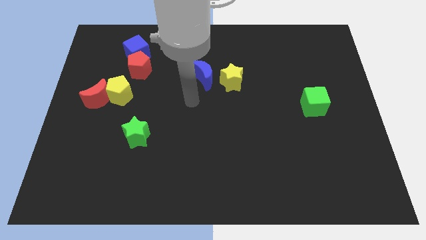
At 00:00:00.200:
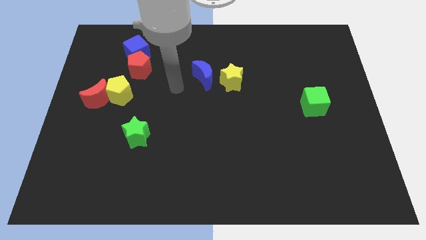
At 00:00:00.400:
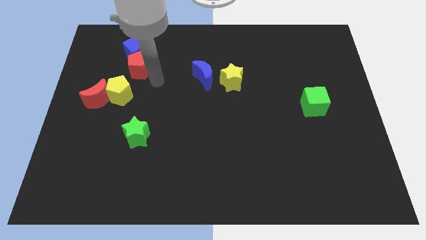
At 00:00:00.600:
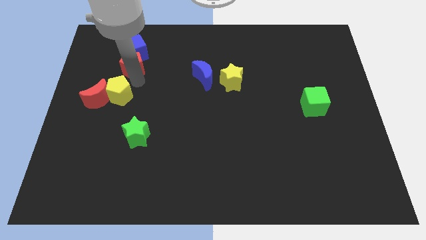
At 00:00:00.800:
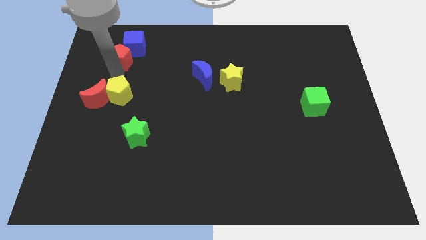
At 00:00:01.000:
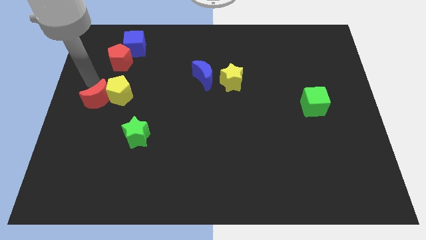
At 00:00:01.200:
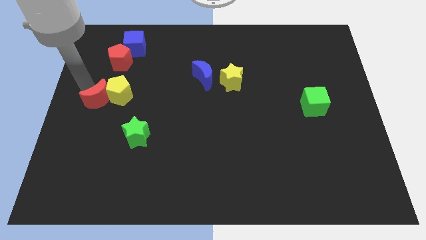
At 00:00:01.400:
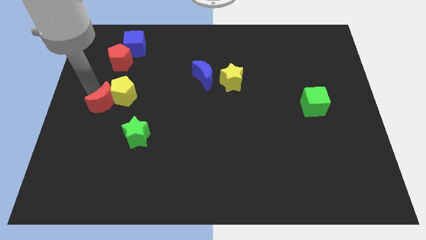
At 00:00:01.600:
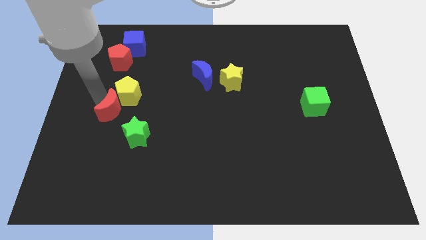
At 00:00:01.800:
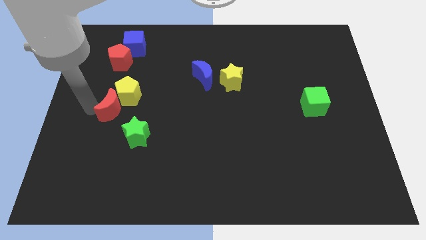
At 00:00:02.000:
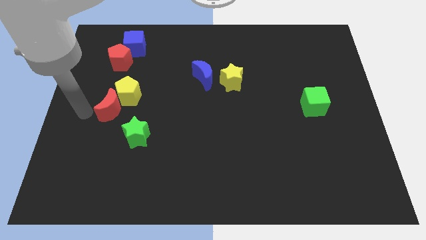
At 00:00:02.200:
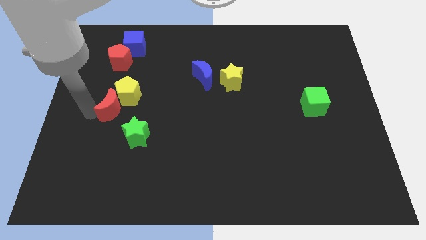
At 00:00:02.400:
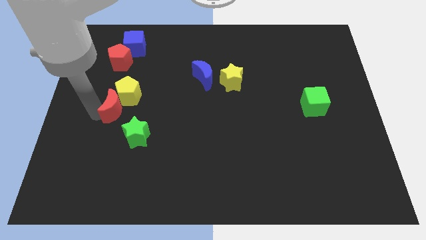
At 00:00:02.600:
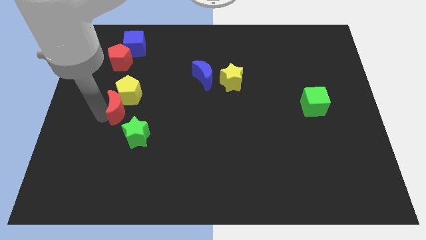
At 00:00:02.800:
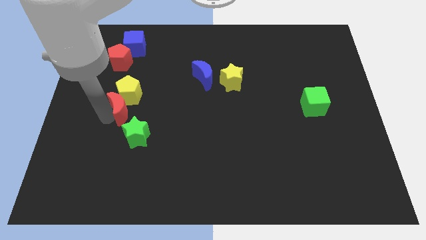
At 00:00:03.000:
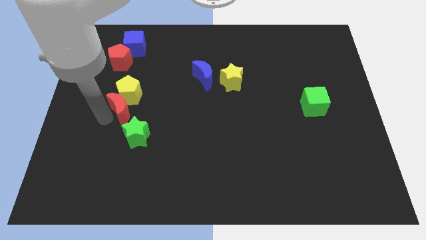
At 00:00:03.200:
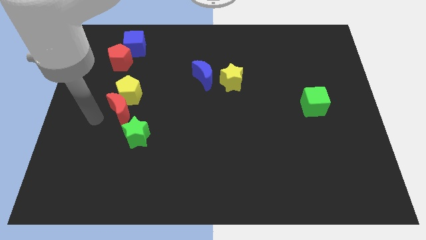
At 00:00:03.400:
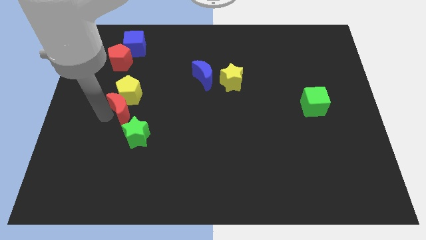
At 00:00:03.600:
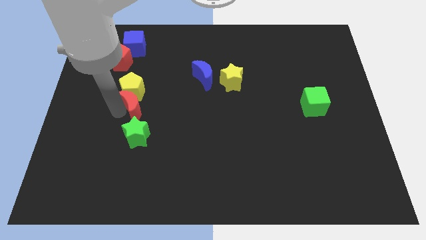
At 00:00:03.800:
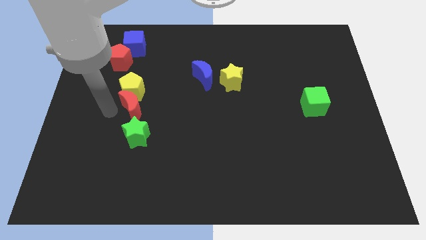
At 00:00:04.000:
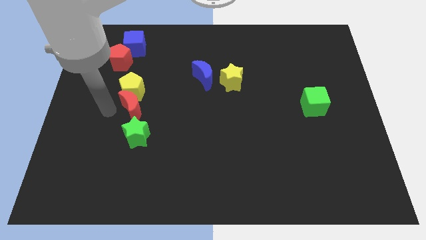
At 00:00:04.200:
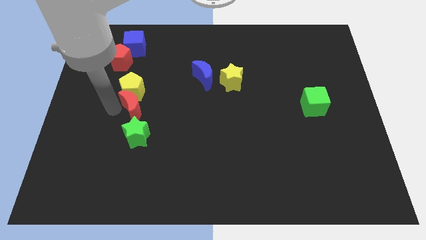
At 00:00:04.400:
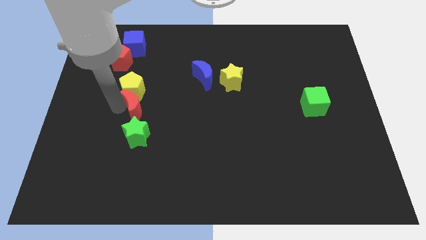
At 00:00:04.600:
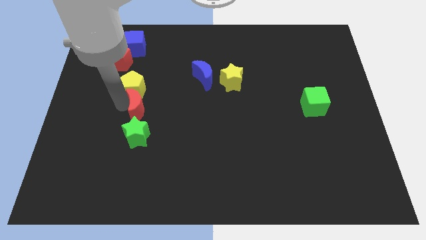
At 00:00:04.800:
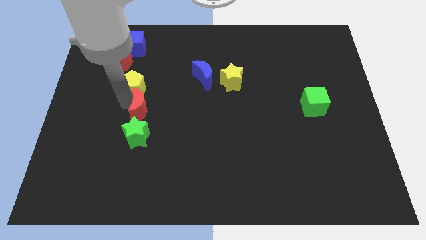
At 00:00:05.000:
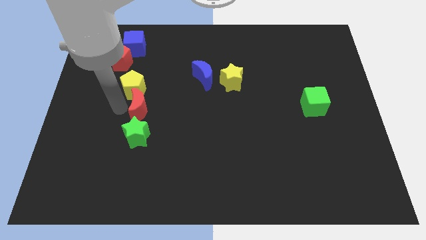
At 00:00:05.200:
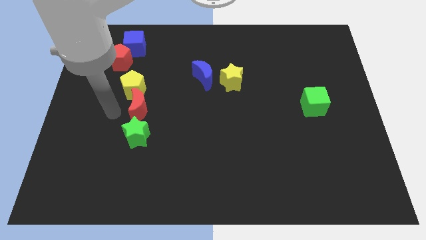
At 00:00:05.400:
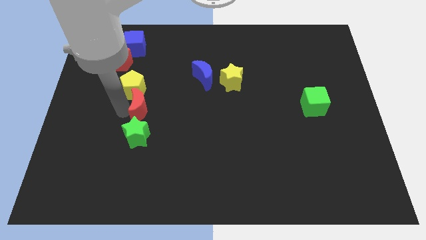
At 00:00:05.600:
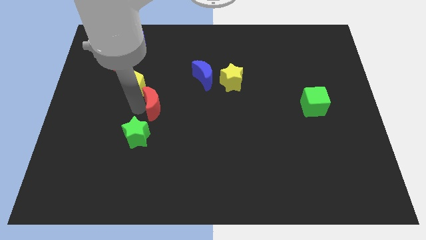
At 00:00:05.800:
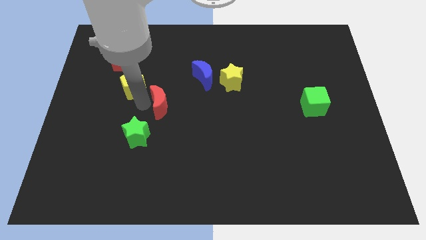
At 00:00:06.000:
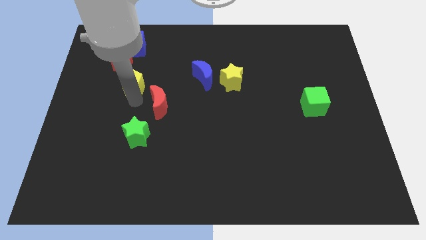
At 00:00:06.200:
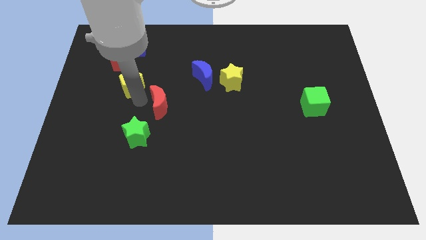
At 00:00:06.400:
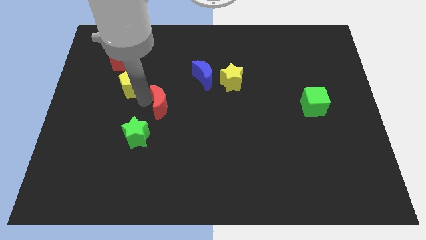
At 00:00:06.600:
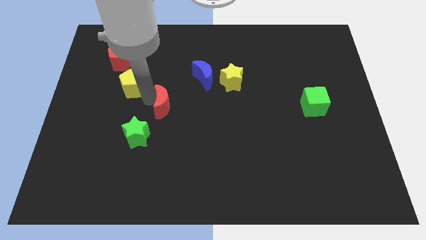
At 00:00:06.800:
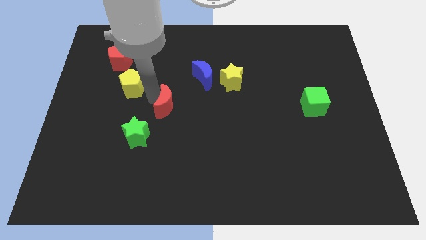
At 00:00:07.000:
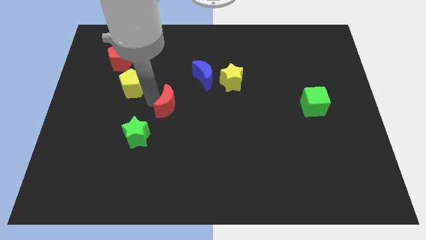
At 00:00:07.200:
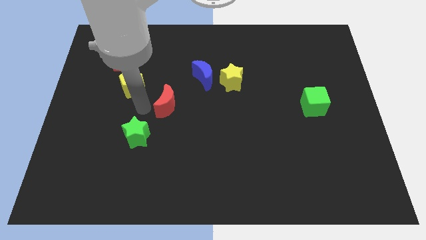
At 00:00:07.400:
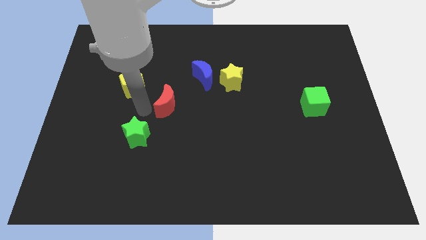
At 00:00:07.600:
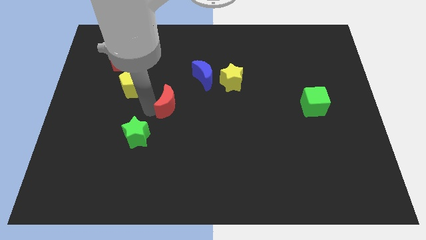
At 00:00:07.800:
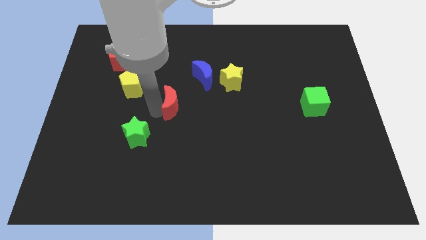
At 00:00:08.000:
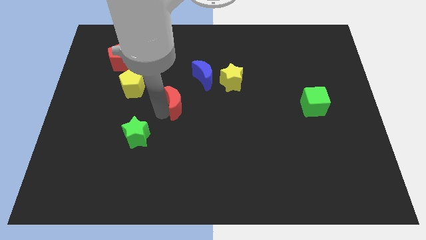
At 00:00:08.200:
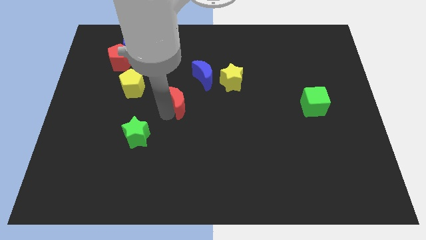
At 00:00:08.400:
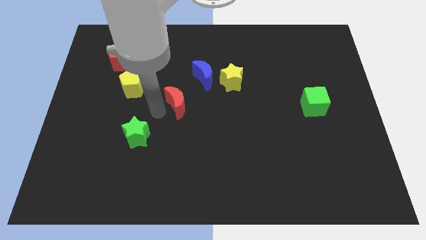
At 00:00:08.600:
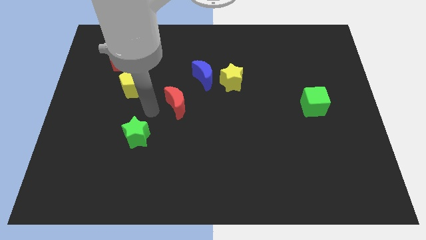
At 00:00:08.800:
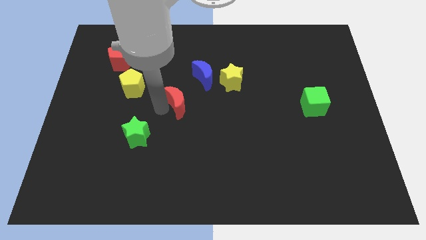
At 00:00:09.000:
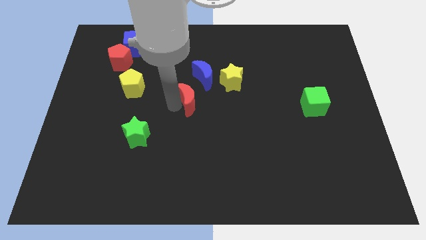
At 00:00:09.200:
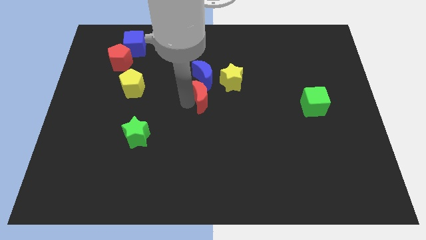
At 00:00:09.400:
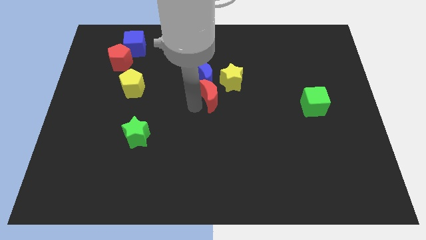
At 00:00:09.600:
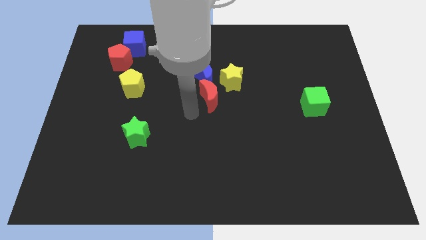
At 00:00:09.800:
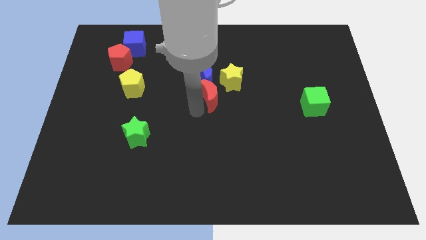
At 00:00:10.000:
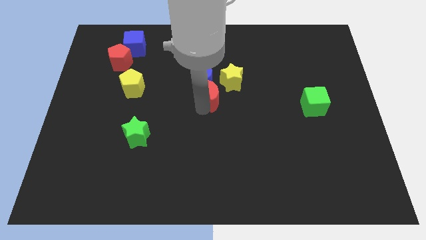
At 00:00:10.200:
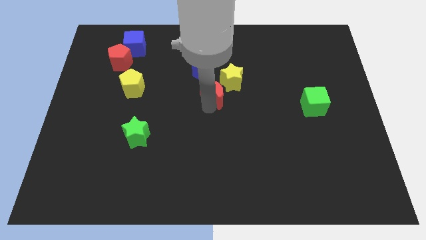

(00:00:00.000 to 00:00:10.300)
put the red moon close to the yellow star

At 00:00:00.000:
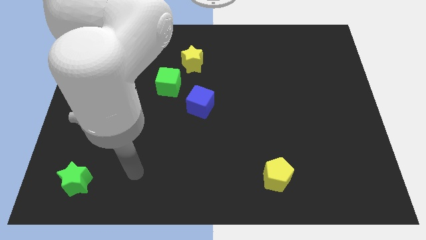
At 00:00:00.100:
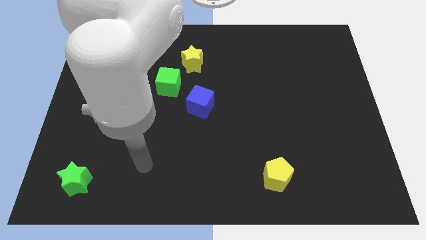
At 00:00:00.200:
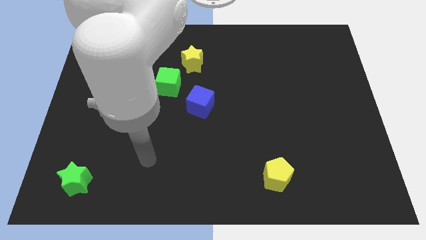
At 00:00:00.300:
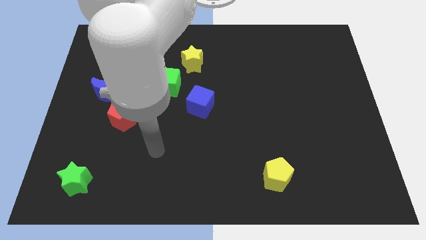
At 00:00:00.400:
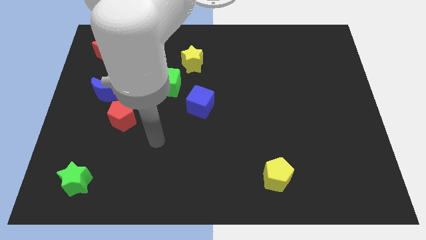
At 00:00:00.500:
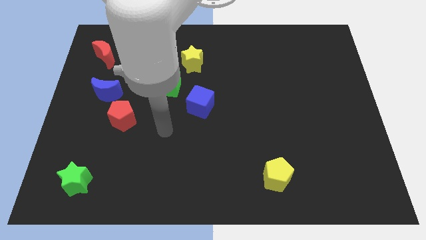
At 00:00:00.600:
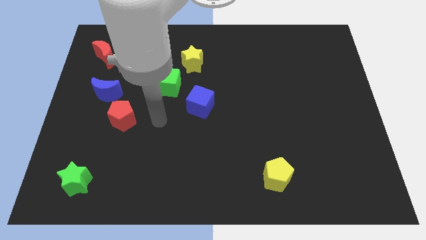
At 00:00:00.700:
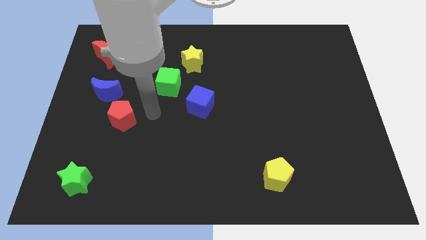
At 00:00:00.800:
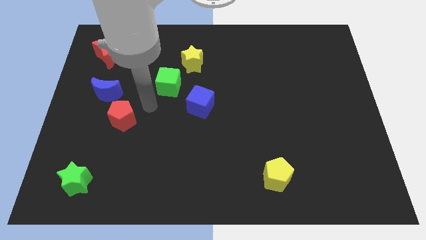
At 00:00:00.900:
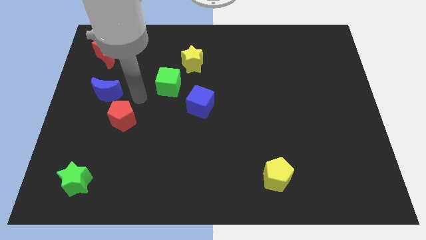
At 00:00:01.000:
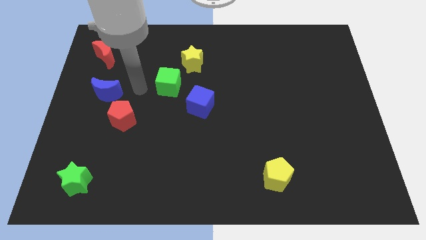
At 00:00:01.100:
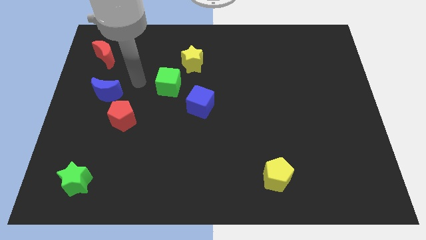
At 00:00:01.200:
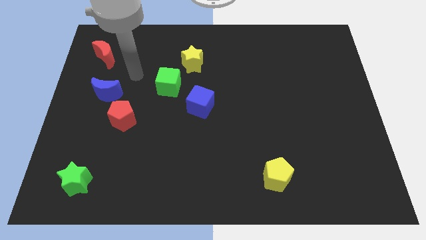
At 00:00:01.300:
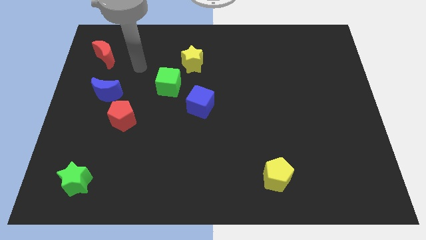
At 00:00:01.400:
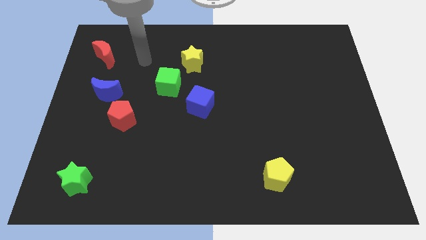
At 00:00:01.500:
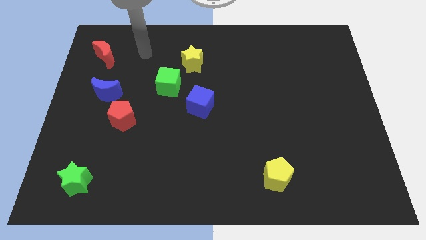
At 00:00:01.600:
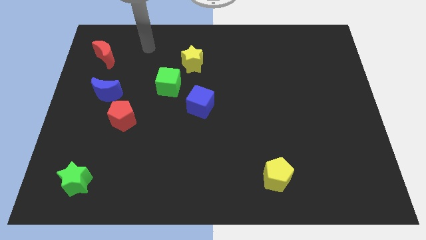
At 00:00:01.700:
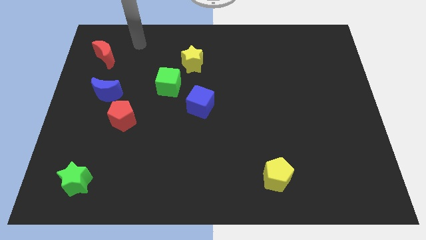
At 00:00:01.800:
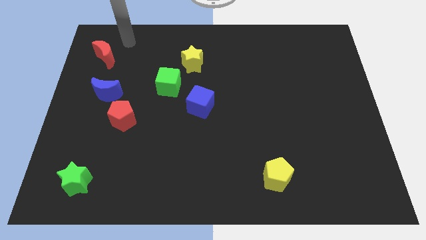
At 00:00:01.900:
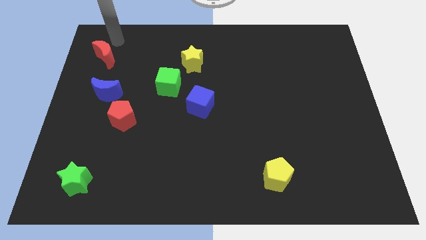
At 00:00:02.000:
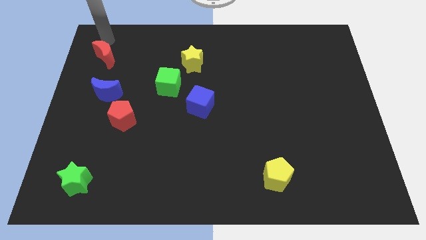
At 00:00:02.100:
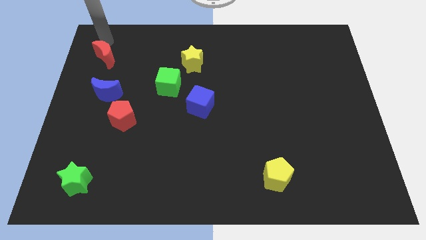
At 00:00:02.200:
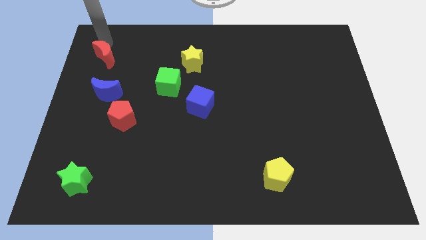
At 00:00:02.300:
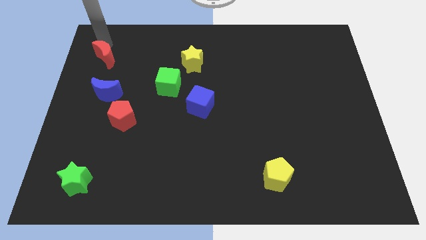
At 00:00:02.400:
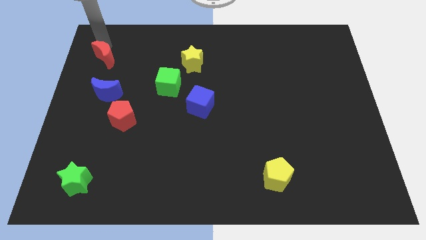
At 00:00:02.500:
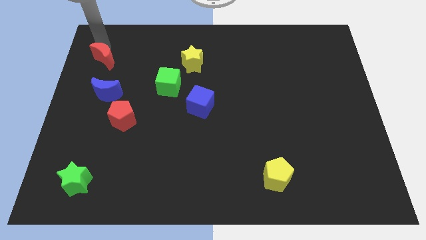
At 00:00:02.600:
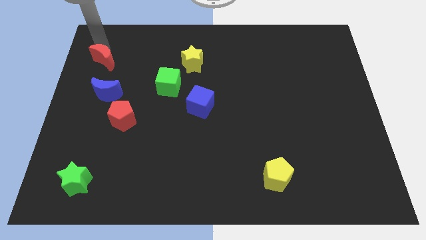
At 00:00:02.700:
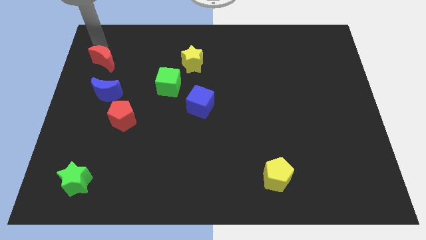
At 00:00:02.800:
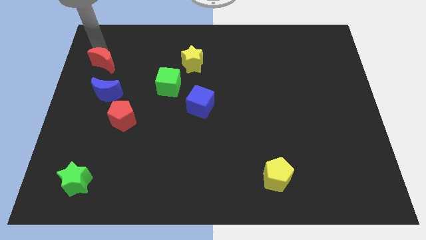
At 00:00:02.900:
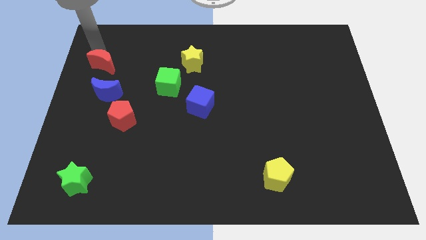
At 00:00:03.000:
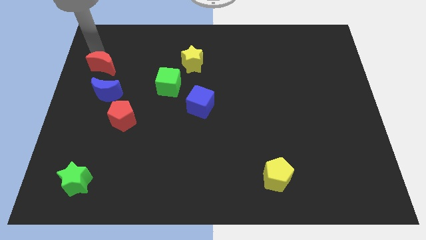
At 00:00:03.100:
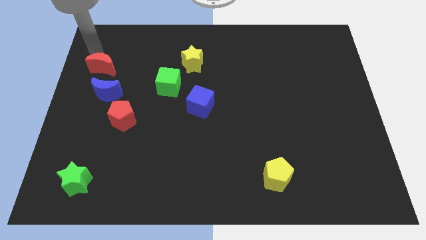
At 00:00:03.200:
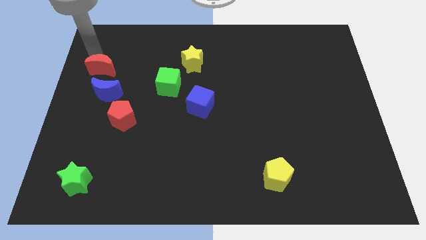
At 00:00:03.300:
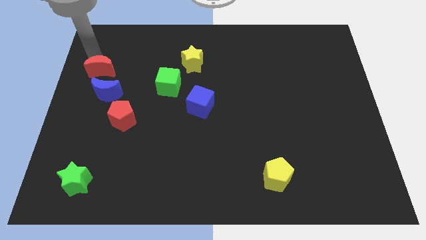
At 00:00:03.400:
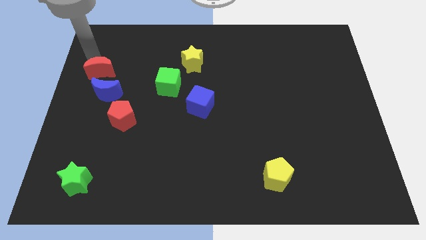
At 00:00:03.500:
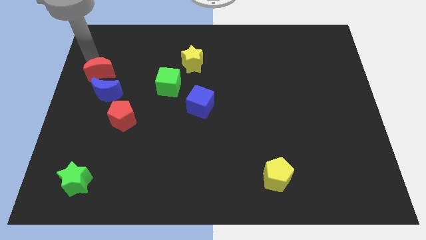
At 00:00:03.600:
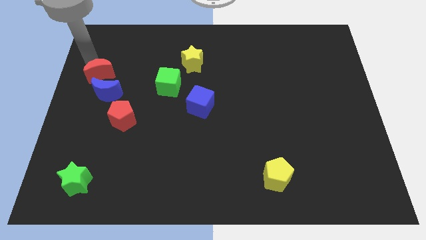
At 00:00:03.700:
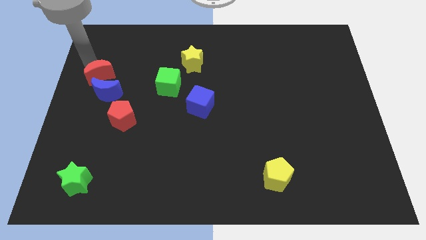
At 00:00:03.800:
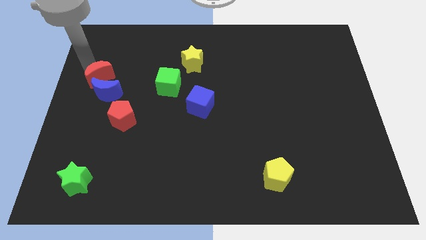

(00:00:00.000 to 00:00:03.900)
slide the red moon towards the blue moon
